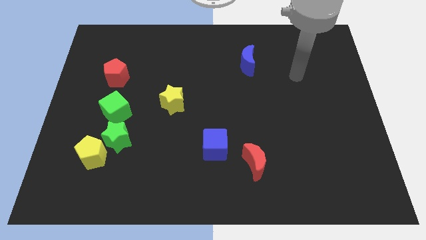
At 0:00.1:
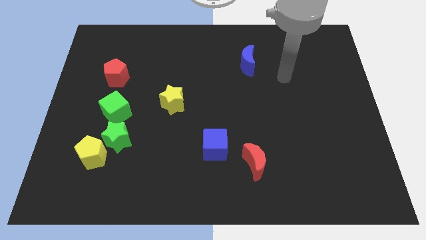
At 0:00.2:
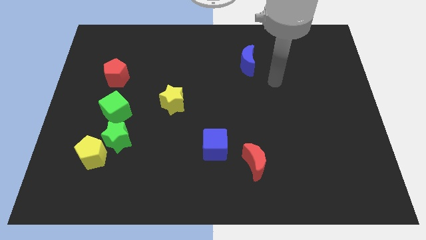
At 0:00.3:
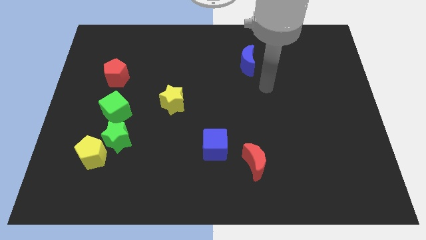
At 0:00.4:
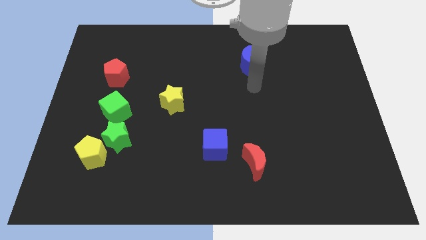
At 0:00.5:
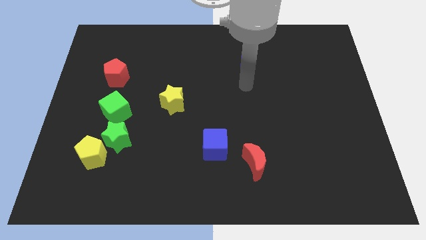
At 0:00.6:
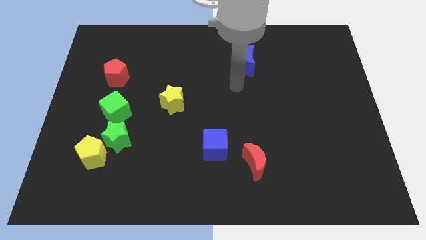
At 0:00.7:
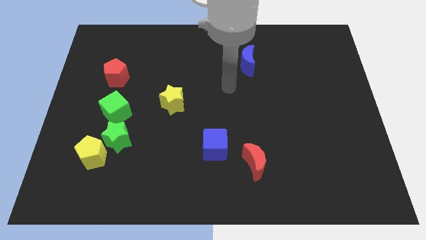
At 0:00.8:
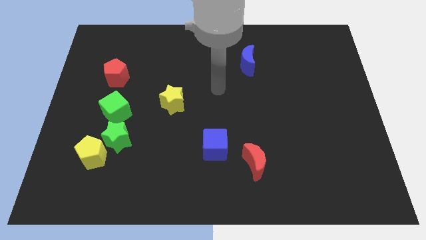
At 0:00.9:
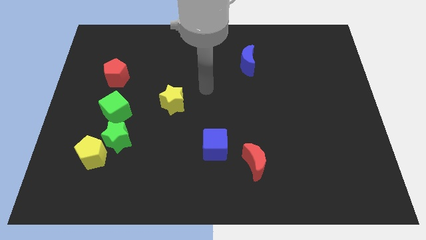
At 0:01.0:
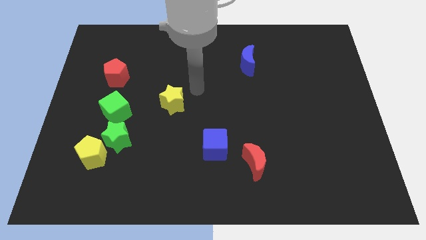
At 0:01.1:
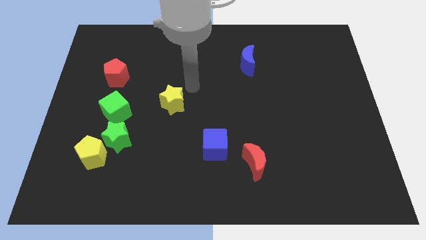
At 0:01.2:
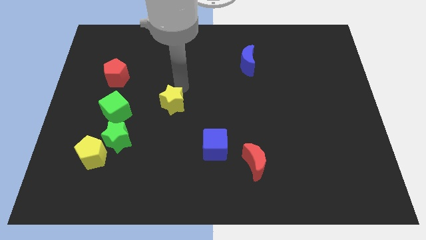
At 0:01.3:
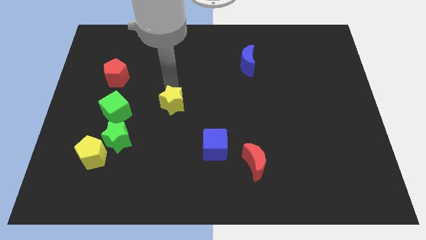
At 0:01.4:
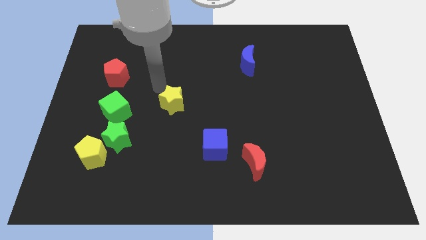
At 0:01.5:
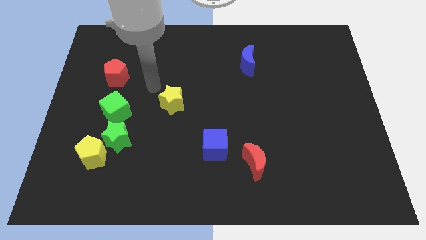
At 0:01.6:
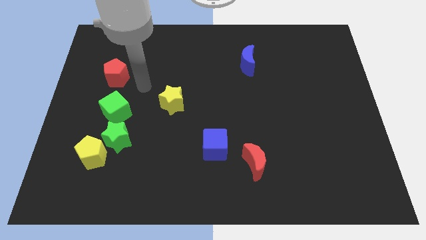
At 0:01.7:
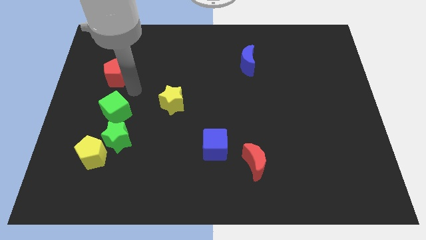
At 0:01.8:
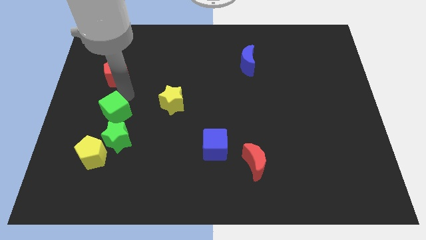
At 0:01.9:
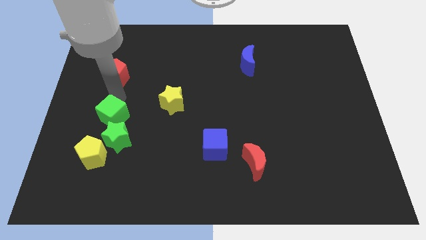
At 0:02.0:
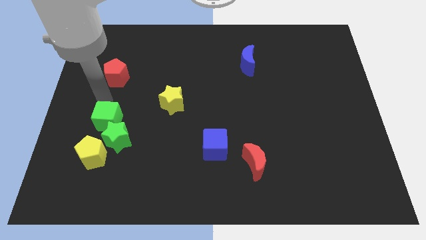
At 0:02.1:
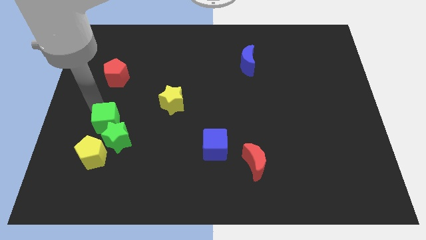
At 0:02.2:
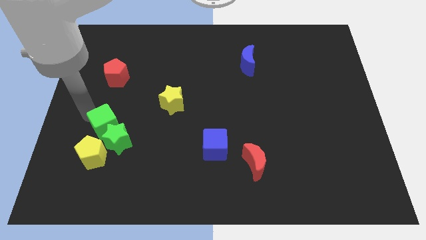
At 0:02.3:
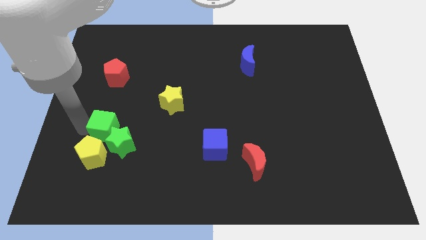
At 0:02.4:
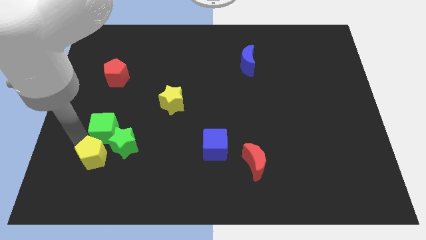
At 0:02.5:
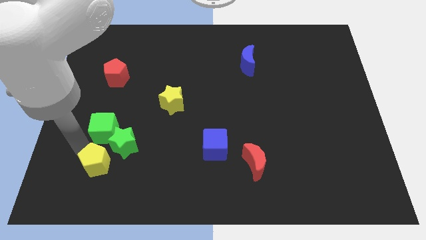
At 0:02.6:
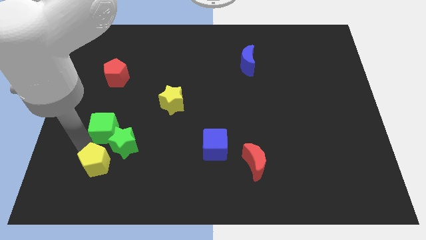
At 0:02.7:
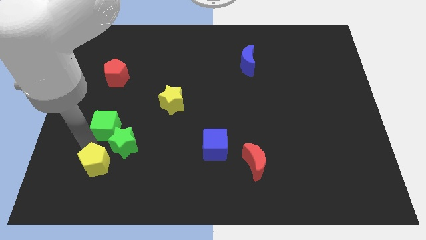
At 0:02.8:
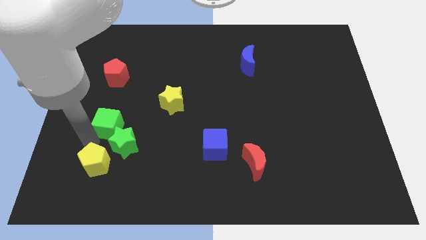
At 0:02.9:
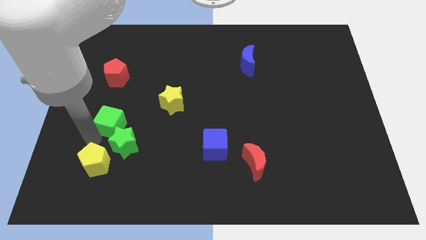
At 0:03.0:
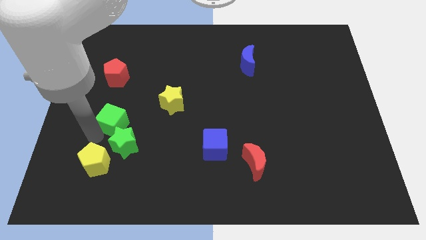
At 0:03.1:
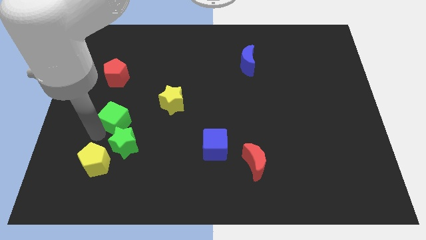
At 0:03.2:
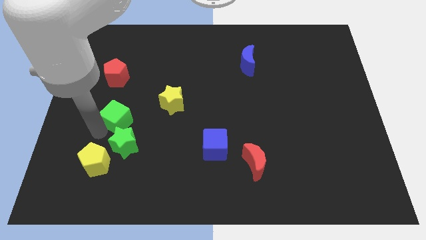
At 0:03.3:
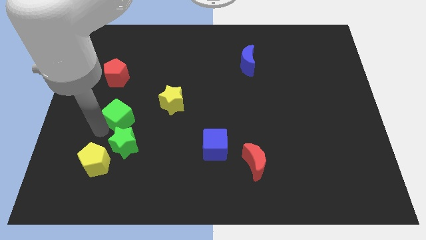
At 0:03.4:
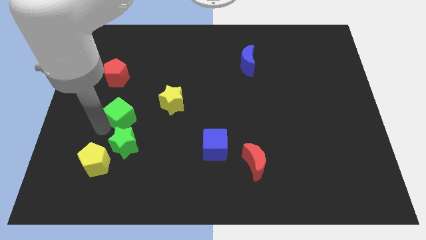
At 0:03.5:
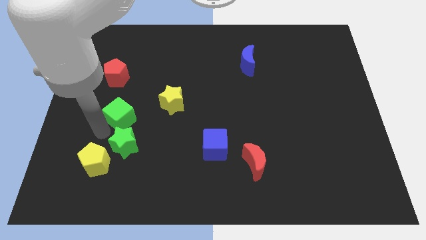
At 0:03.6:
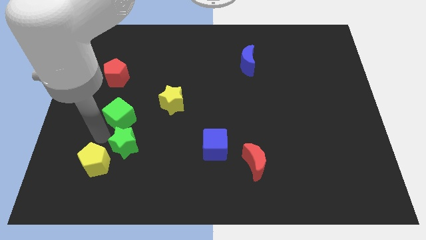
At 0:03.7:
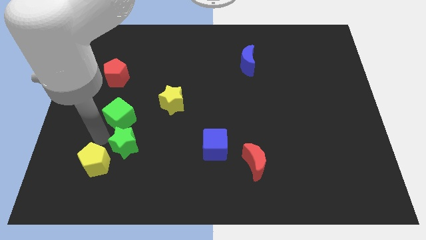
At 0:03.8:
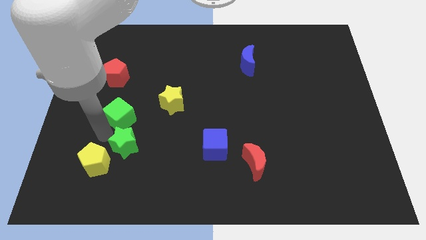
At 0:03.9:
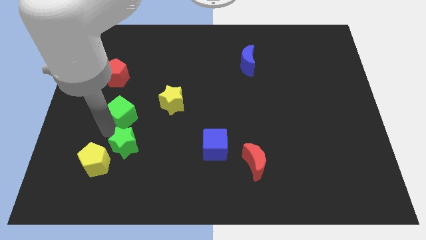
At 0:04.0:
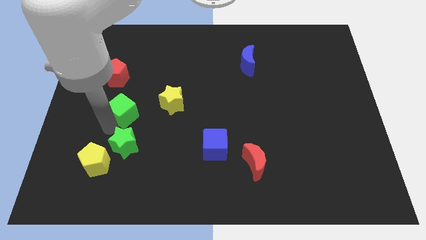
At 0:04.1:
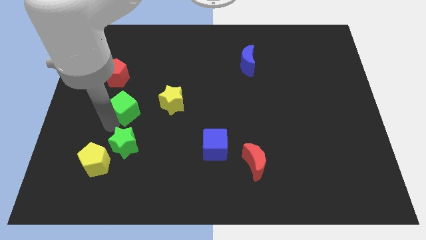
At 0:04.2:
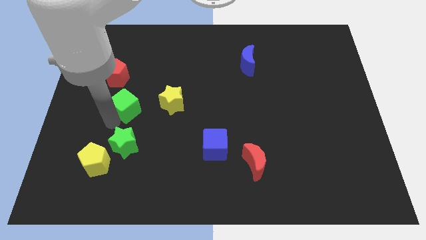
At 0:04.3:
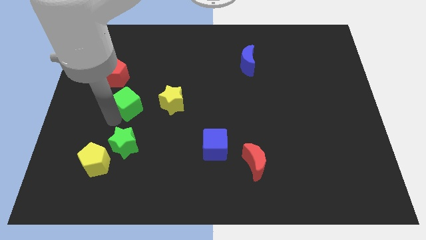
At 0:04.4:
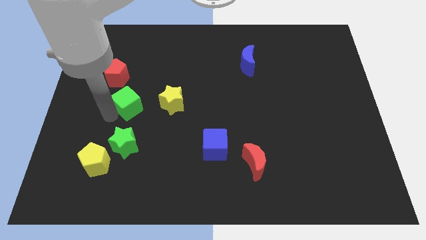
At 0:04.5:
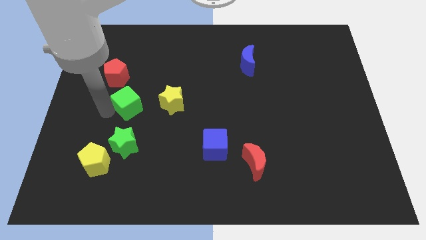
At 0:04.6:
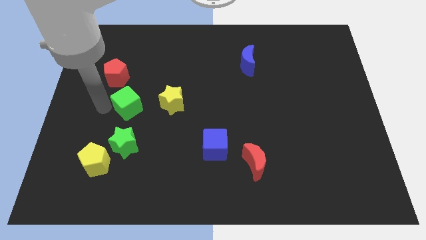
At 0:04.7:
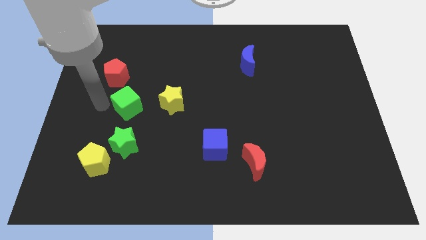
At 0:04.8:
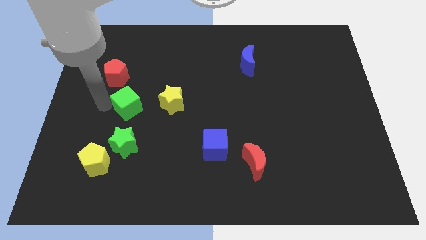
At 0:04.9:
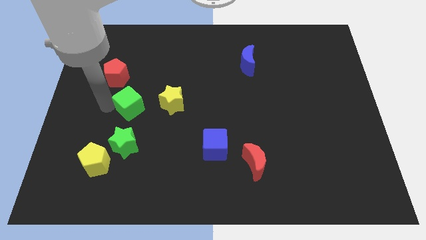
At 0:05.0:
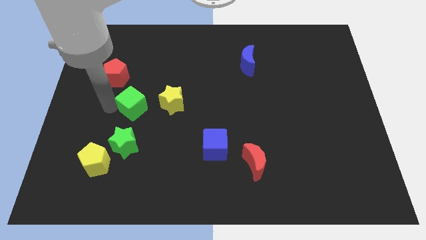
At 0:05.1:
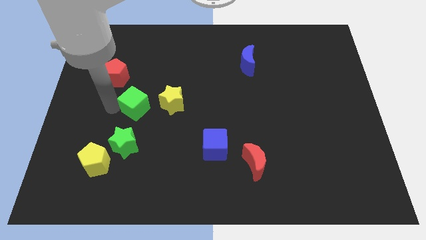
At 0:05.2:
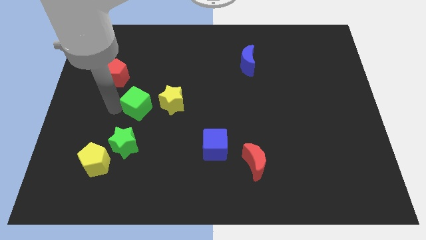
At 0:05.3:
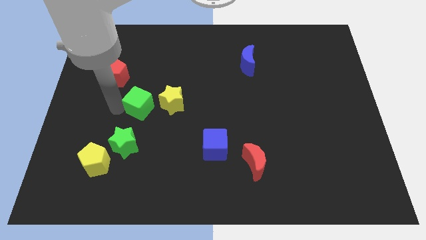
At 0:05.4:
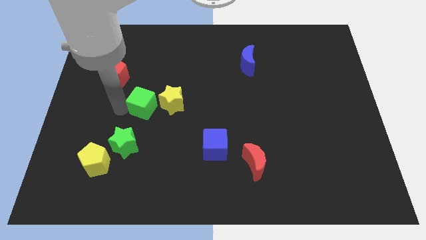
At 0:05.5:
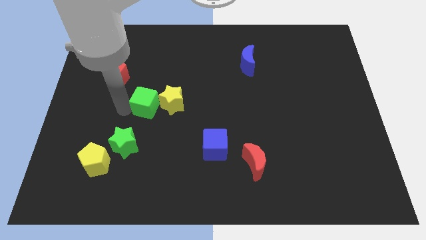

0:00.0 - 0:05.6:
move the green cube towards the yellow star
